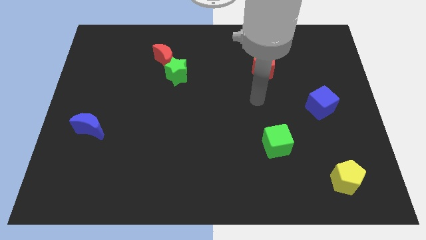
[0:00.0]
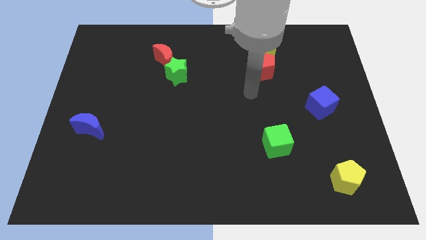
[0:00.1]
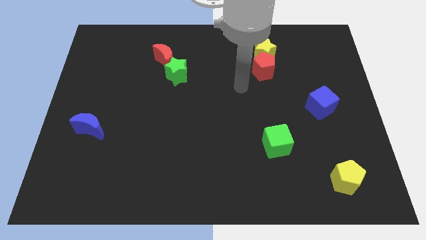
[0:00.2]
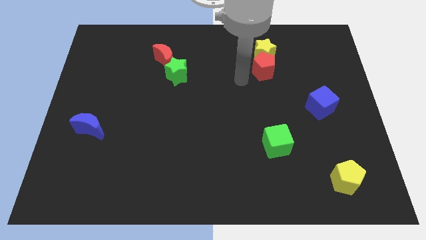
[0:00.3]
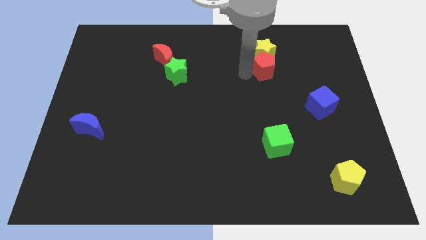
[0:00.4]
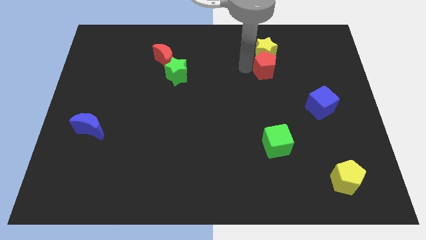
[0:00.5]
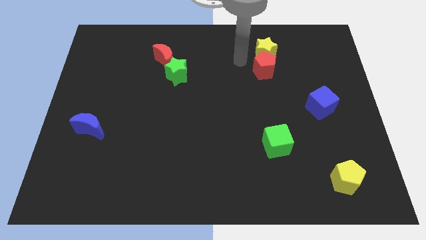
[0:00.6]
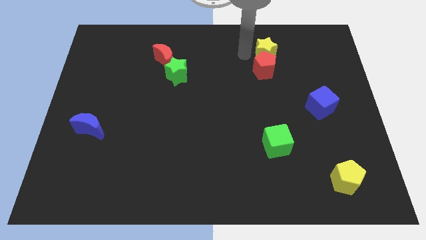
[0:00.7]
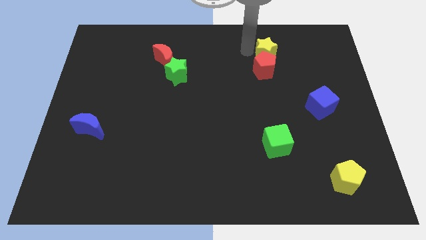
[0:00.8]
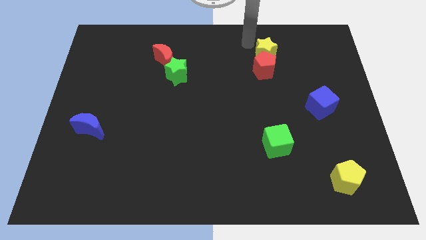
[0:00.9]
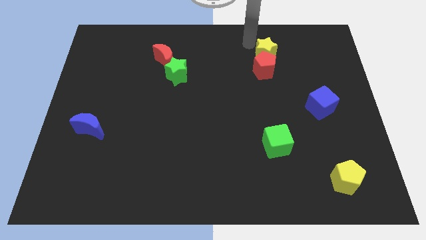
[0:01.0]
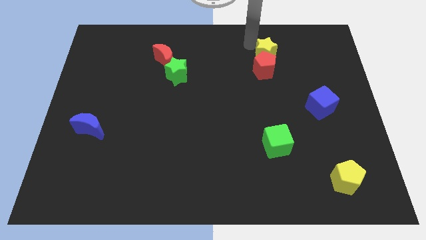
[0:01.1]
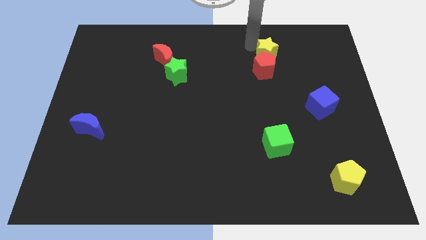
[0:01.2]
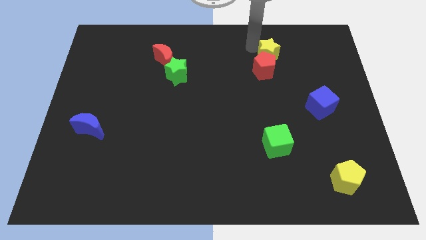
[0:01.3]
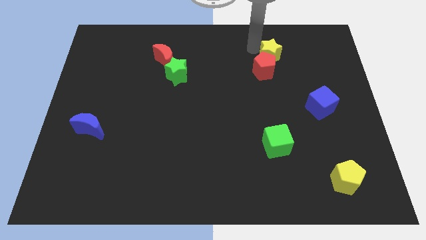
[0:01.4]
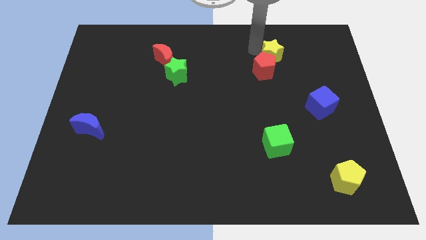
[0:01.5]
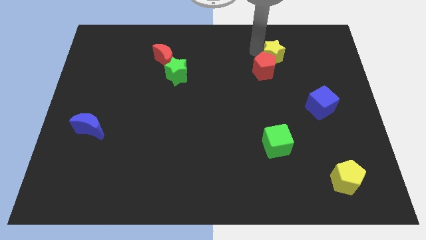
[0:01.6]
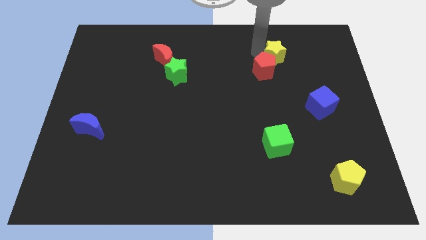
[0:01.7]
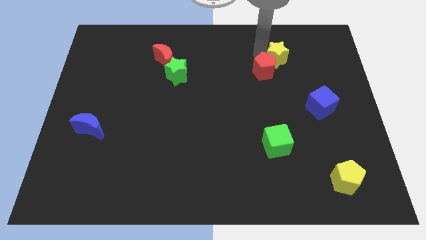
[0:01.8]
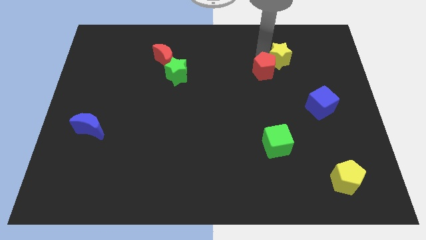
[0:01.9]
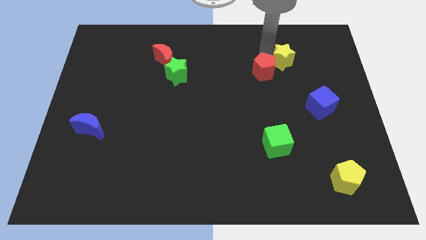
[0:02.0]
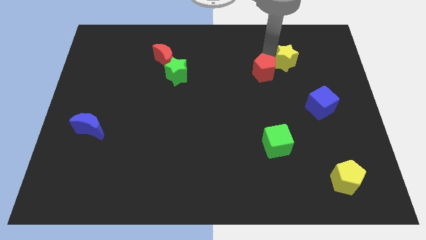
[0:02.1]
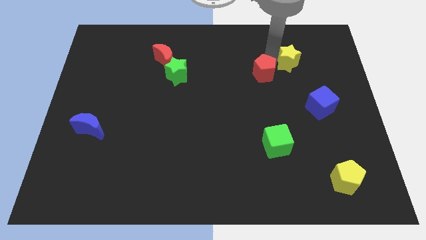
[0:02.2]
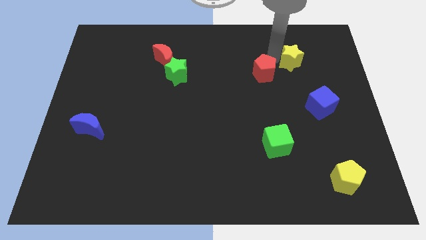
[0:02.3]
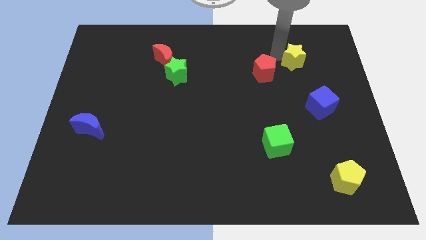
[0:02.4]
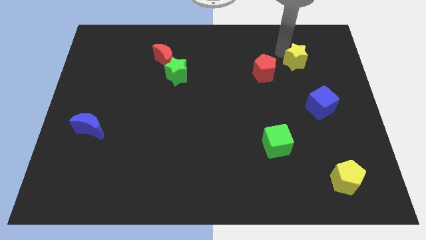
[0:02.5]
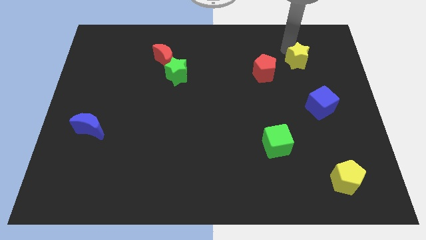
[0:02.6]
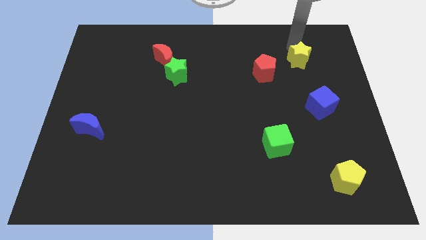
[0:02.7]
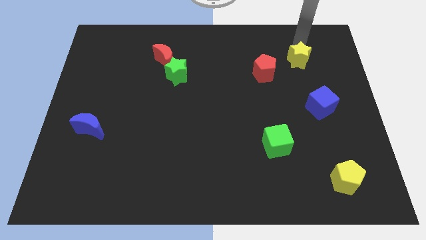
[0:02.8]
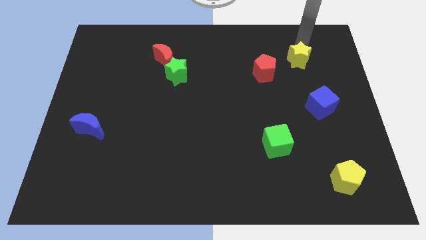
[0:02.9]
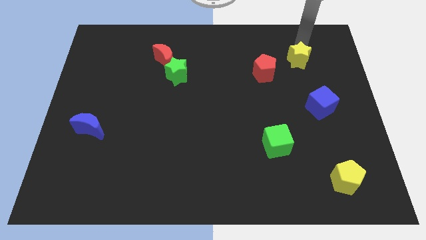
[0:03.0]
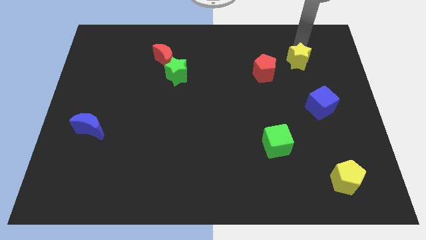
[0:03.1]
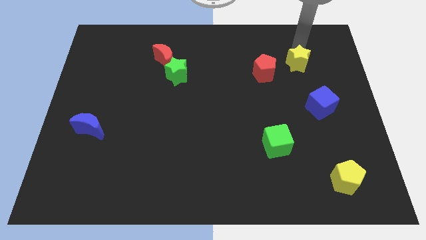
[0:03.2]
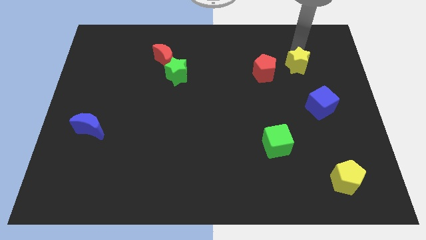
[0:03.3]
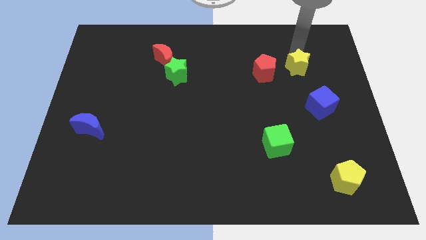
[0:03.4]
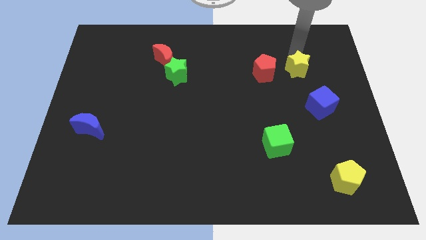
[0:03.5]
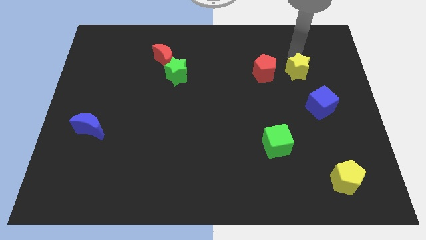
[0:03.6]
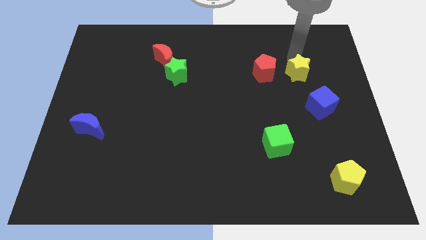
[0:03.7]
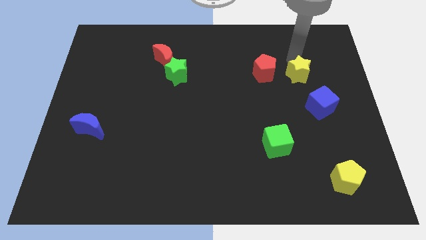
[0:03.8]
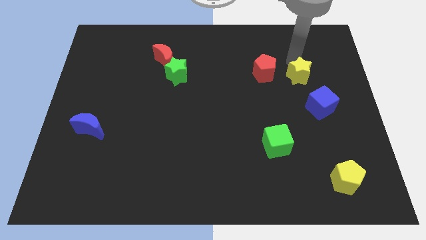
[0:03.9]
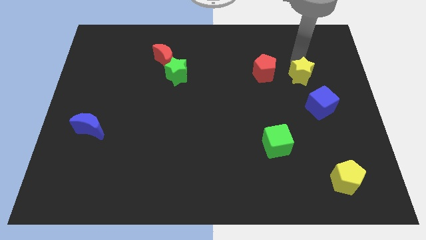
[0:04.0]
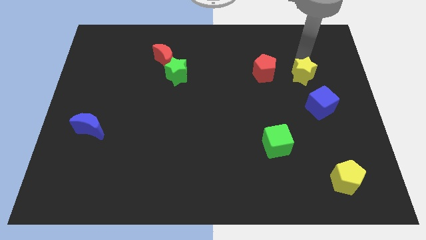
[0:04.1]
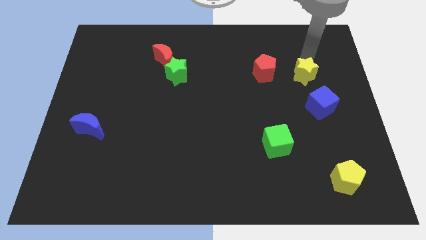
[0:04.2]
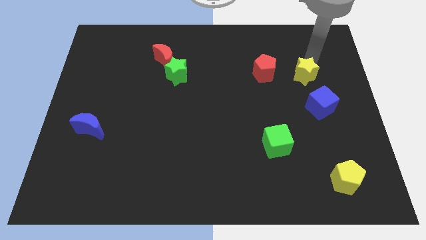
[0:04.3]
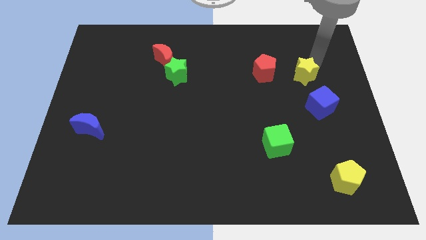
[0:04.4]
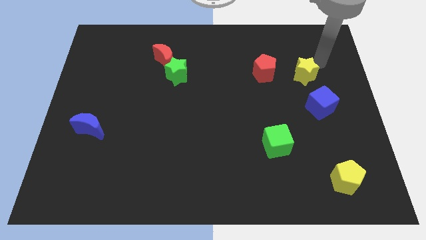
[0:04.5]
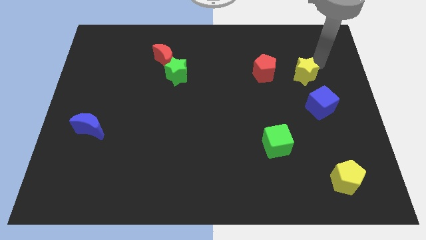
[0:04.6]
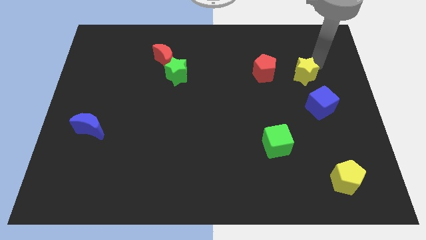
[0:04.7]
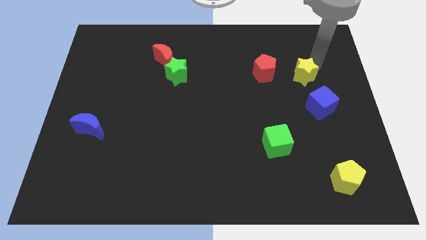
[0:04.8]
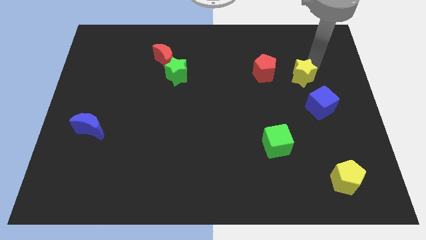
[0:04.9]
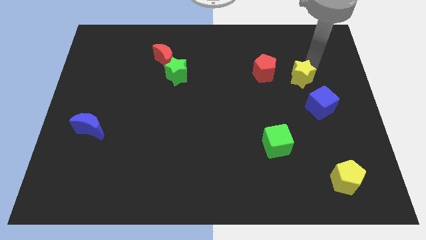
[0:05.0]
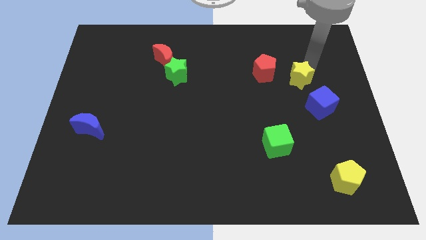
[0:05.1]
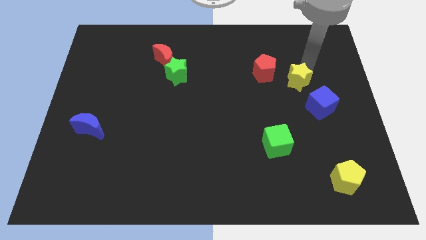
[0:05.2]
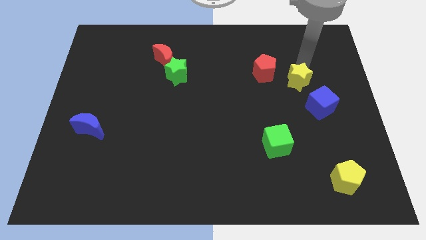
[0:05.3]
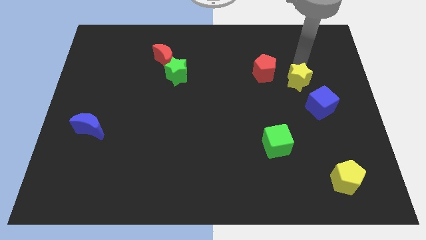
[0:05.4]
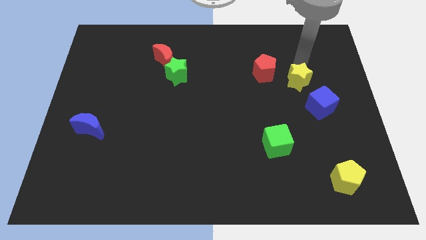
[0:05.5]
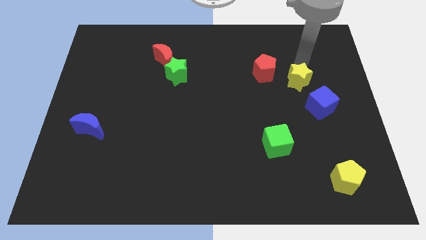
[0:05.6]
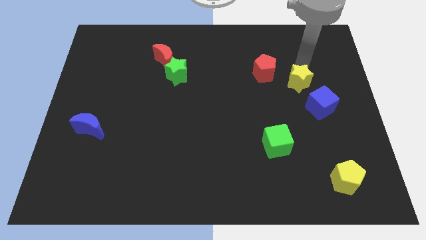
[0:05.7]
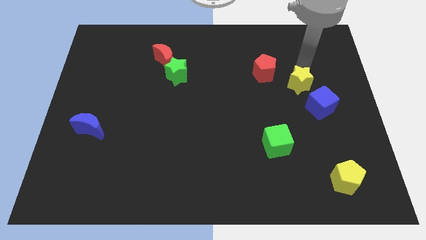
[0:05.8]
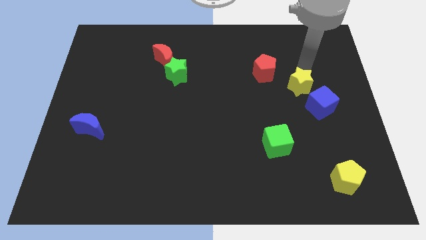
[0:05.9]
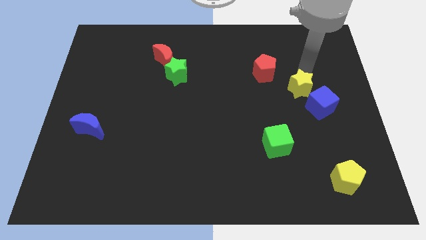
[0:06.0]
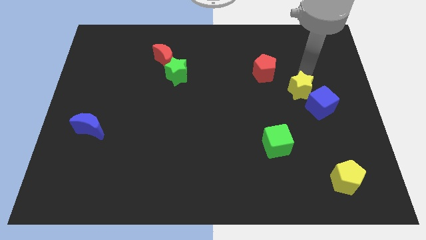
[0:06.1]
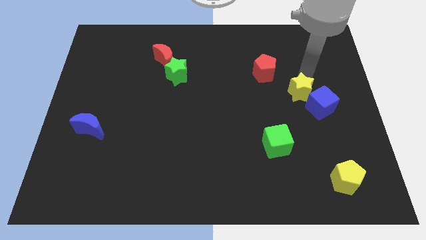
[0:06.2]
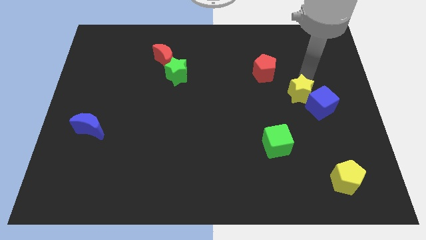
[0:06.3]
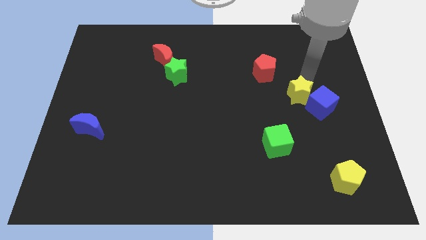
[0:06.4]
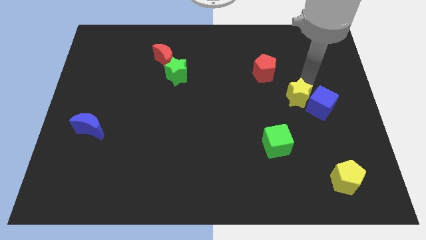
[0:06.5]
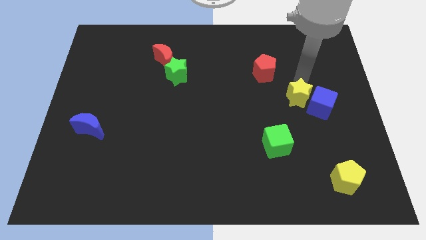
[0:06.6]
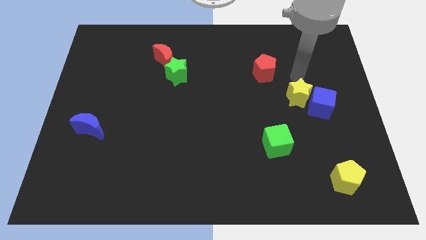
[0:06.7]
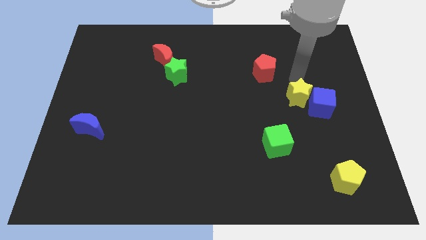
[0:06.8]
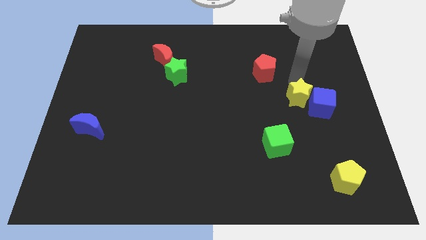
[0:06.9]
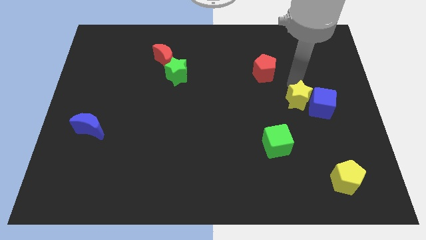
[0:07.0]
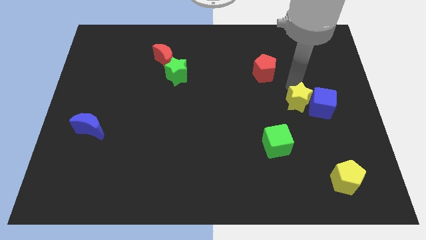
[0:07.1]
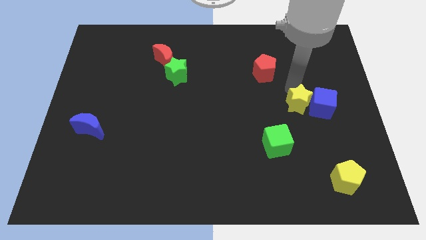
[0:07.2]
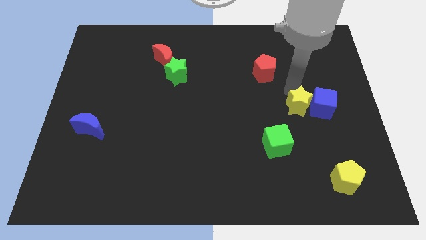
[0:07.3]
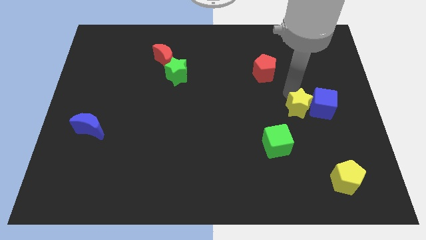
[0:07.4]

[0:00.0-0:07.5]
move the yellow star to the top right of the green cube
